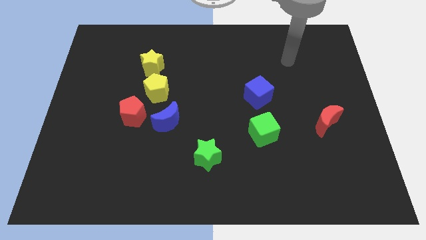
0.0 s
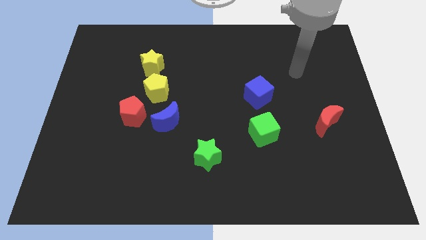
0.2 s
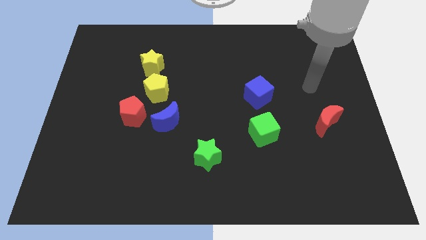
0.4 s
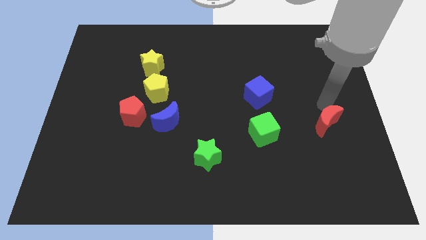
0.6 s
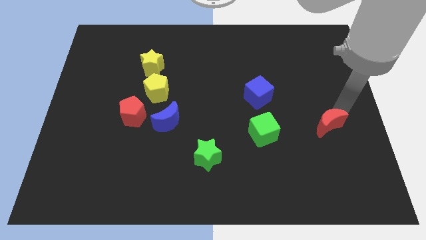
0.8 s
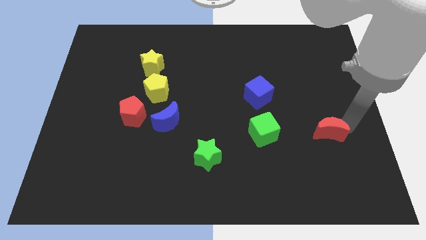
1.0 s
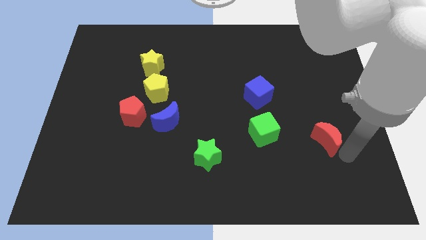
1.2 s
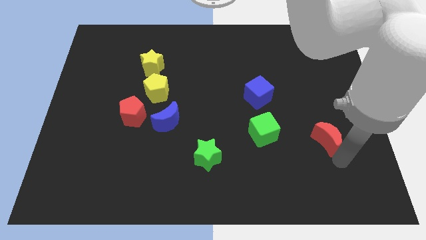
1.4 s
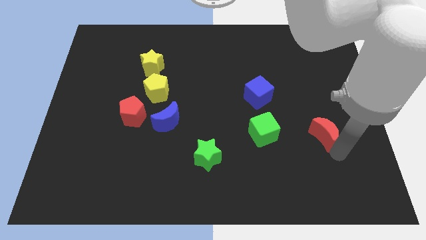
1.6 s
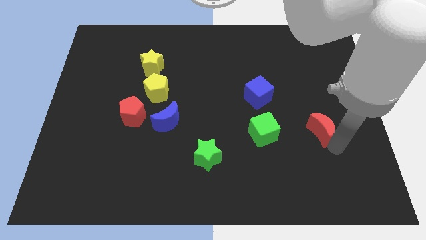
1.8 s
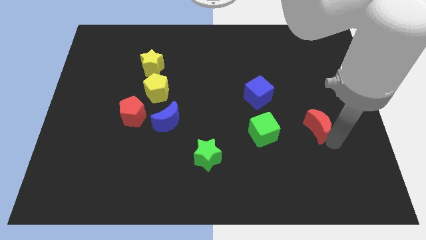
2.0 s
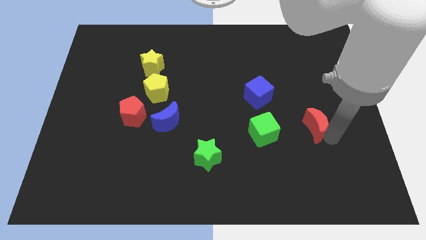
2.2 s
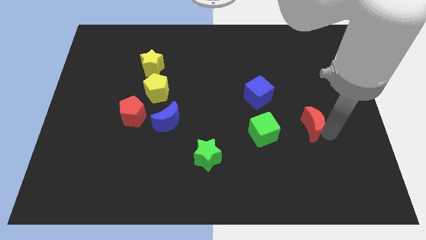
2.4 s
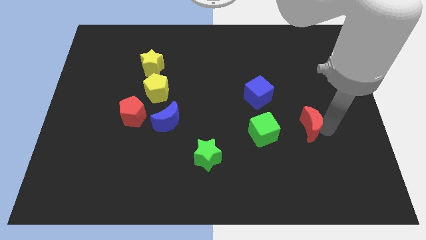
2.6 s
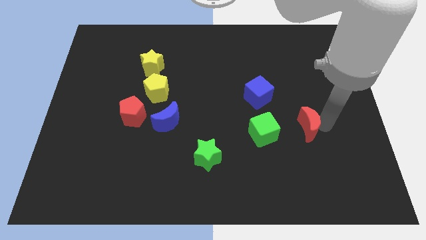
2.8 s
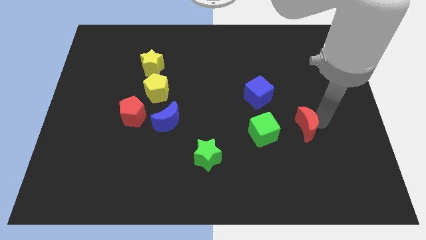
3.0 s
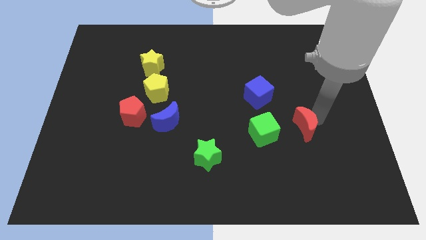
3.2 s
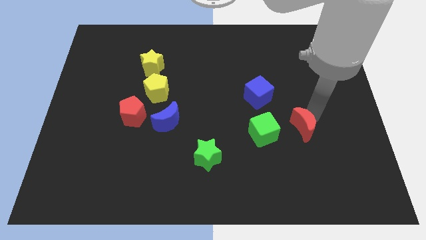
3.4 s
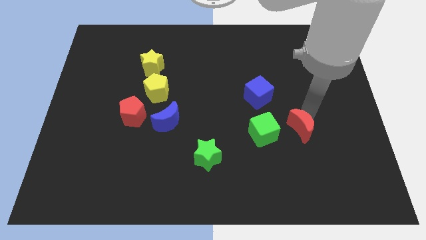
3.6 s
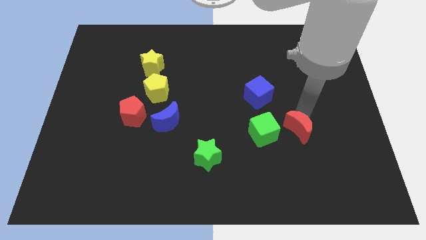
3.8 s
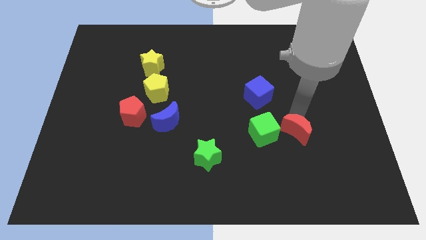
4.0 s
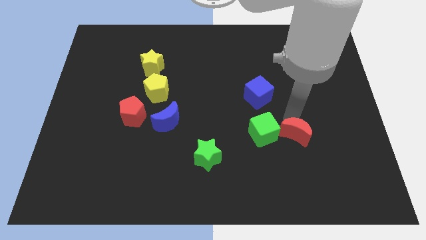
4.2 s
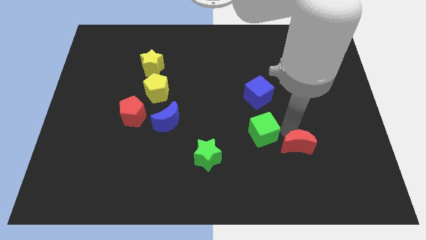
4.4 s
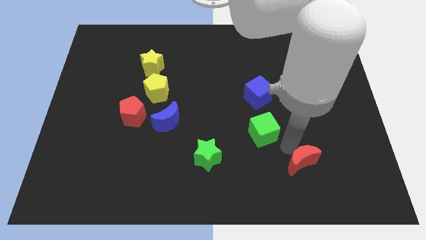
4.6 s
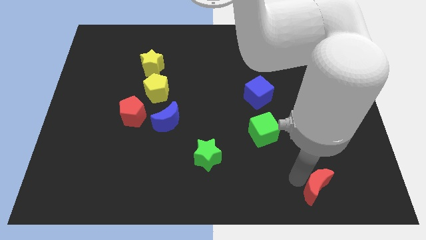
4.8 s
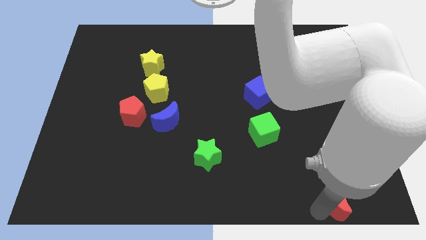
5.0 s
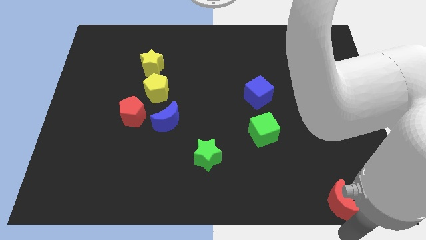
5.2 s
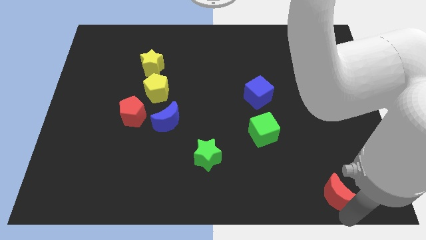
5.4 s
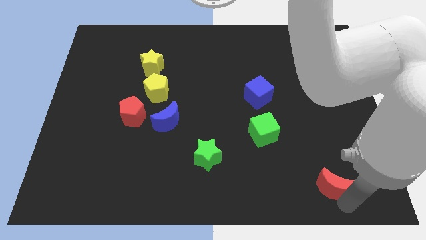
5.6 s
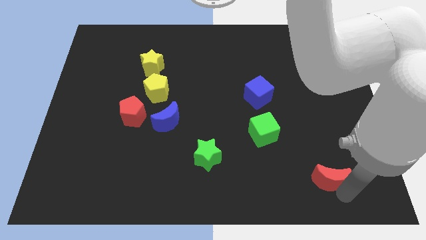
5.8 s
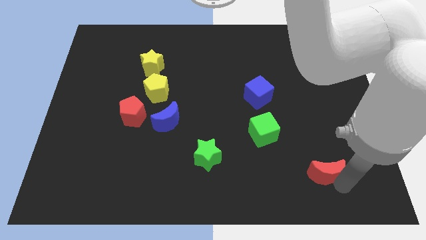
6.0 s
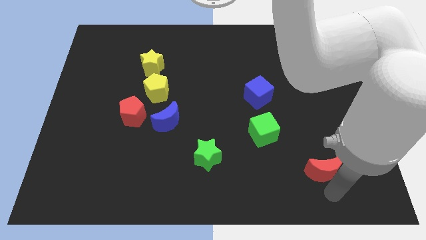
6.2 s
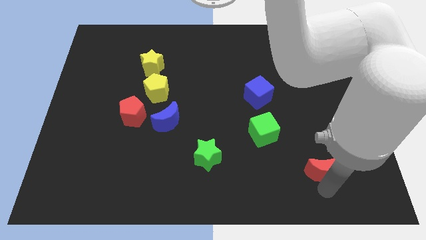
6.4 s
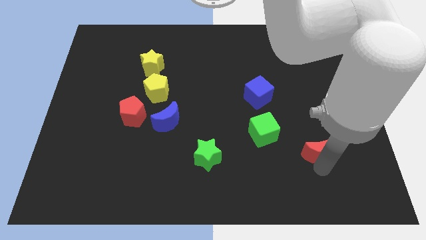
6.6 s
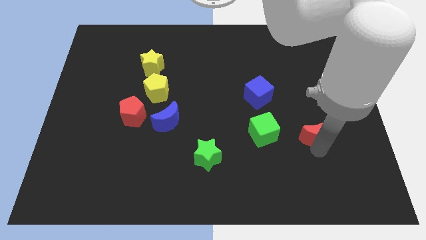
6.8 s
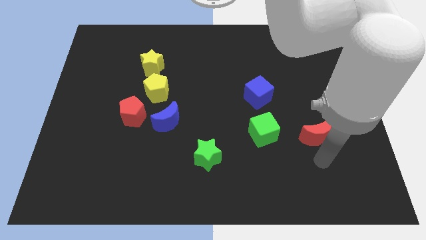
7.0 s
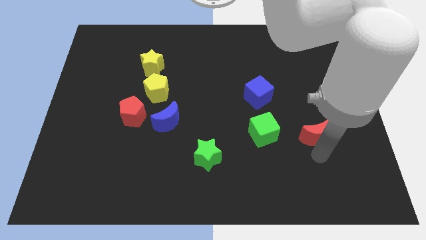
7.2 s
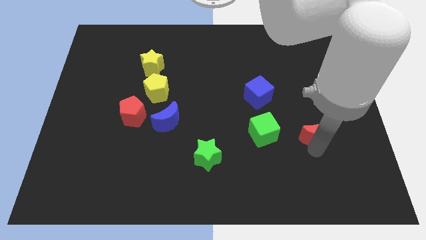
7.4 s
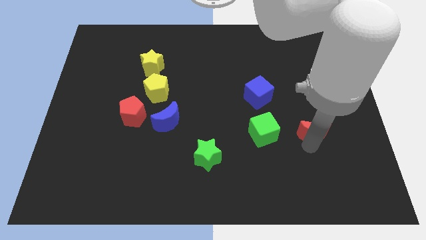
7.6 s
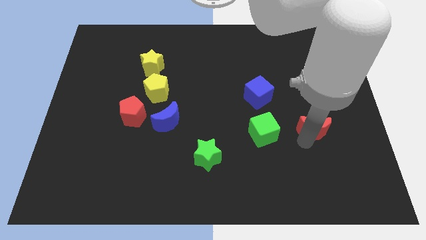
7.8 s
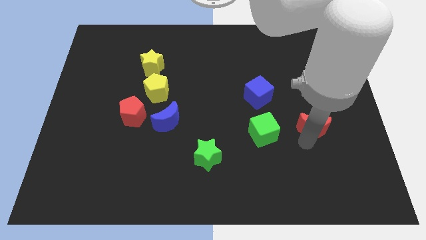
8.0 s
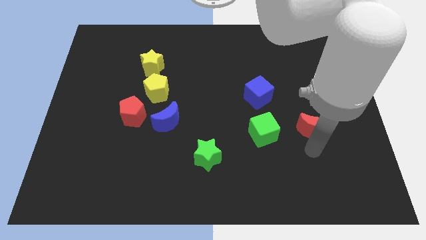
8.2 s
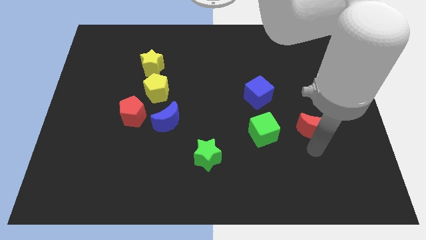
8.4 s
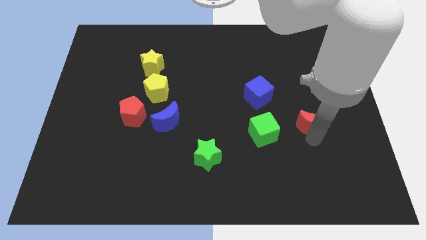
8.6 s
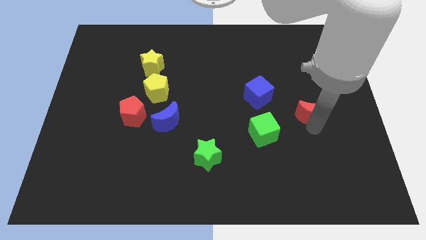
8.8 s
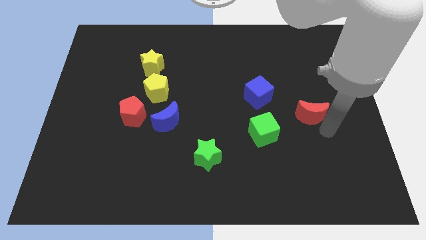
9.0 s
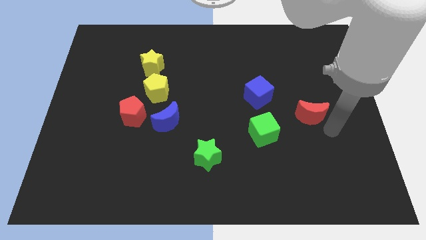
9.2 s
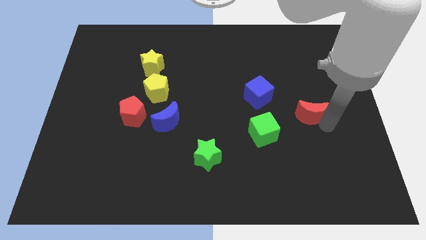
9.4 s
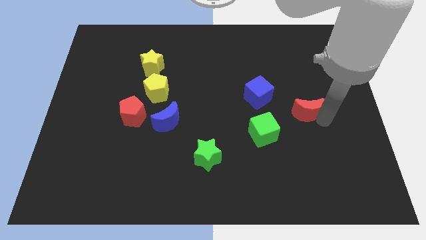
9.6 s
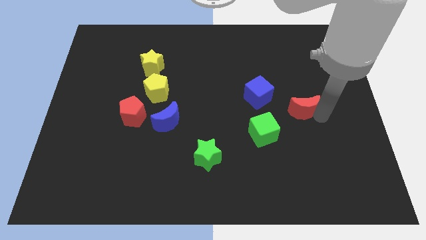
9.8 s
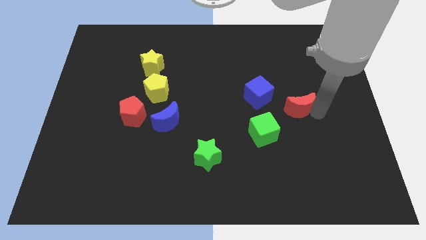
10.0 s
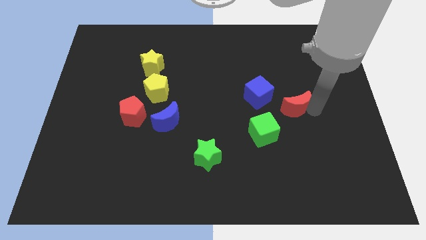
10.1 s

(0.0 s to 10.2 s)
move the red moon a little up and left diagonally

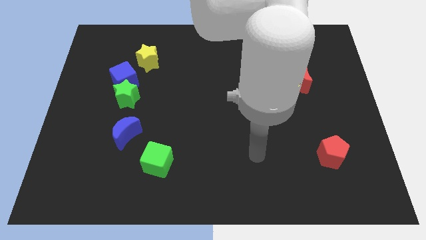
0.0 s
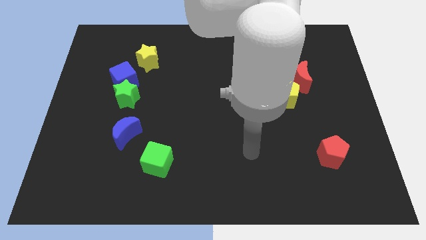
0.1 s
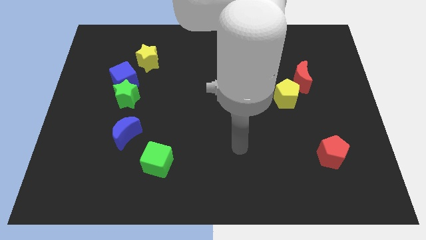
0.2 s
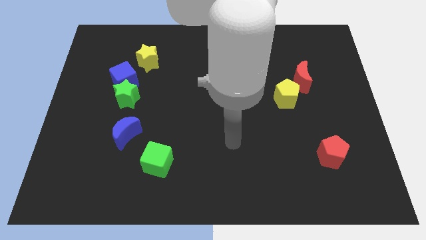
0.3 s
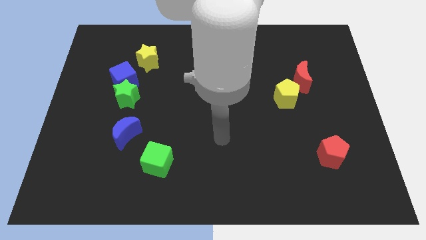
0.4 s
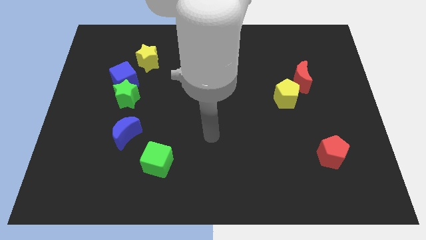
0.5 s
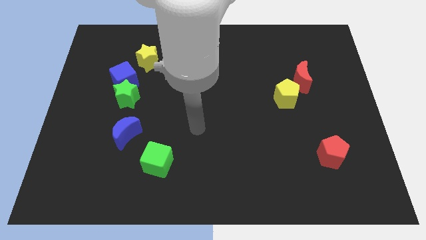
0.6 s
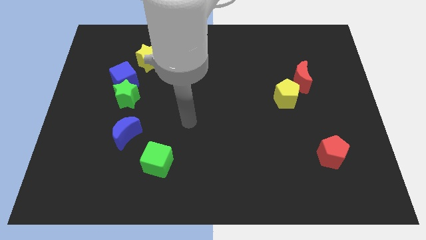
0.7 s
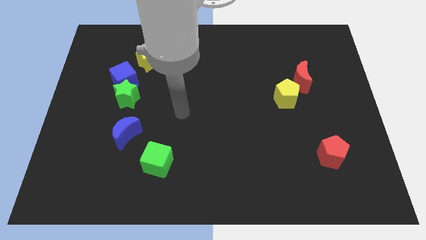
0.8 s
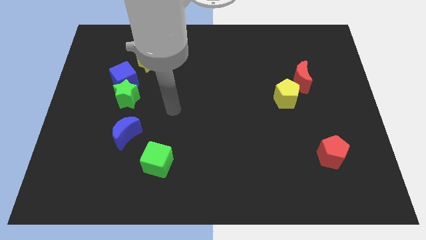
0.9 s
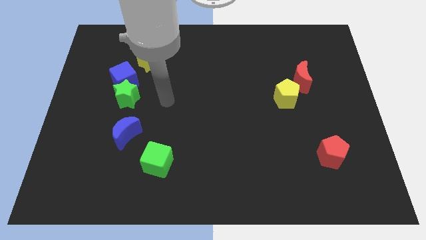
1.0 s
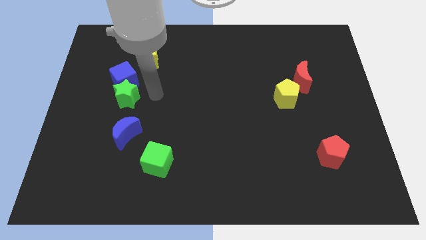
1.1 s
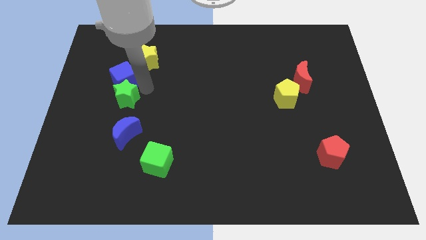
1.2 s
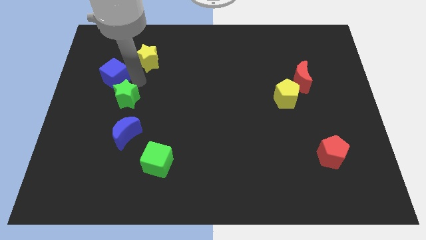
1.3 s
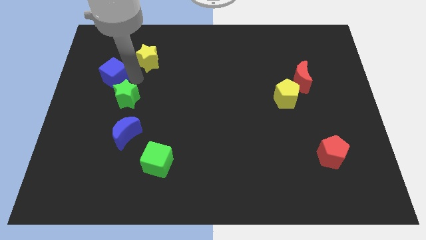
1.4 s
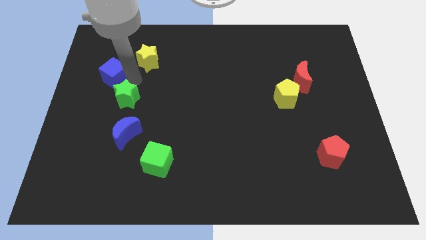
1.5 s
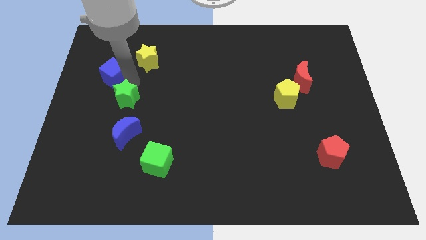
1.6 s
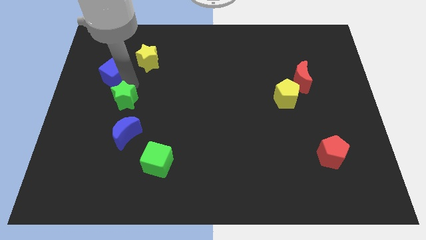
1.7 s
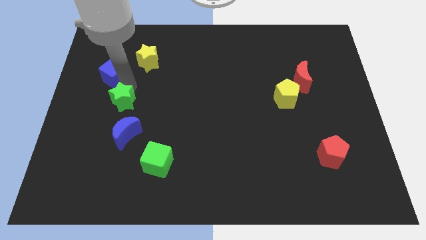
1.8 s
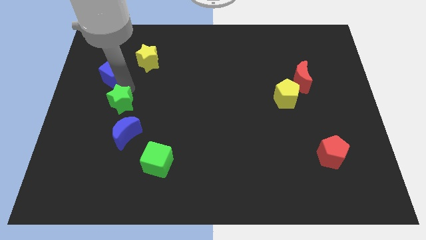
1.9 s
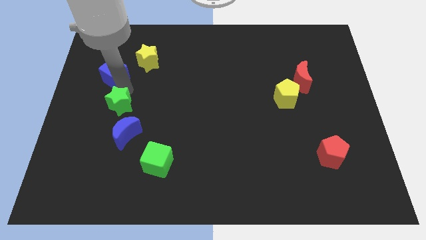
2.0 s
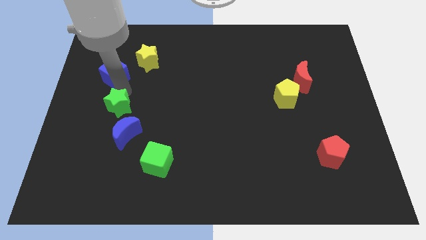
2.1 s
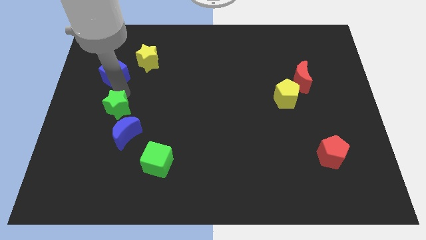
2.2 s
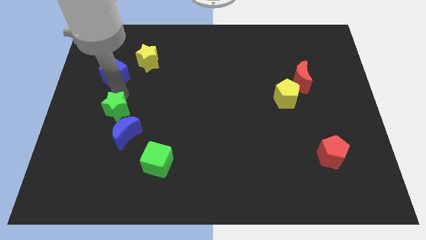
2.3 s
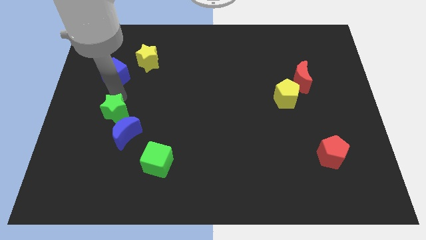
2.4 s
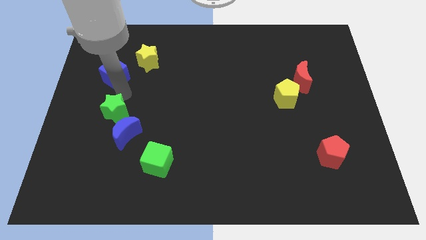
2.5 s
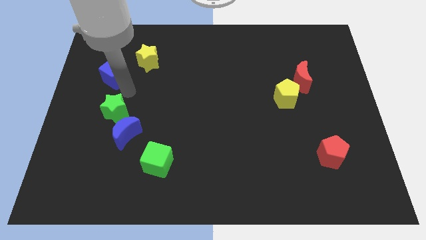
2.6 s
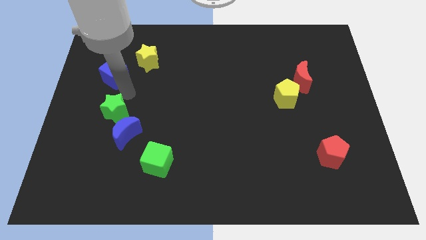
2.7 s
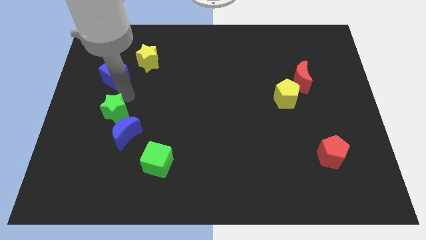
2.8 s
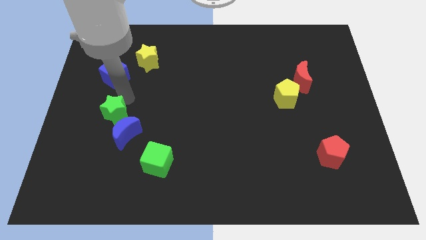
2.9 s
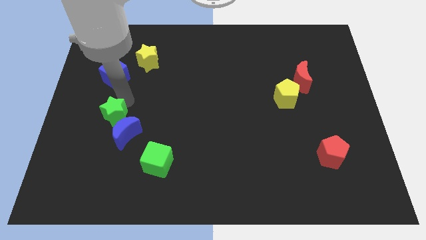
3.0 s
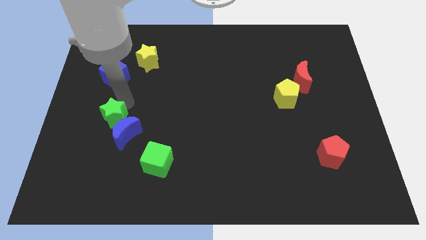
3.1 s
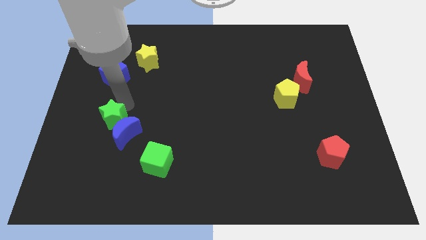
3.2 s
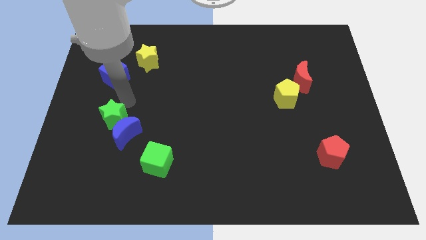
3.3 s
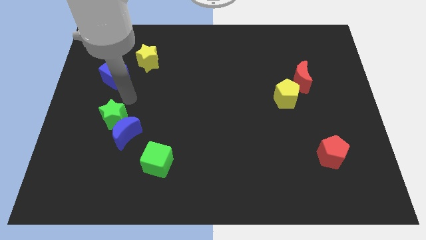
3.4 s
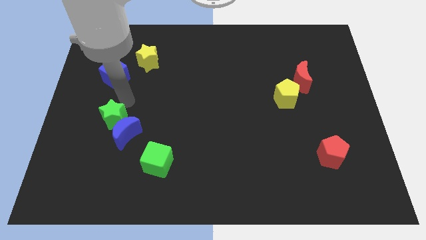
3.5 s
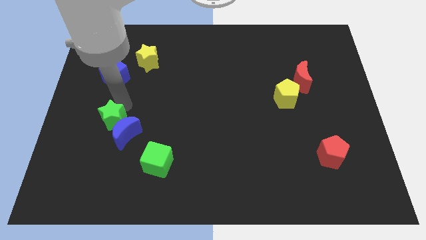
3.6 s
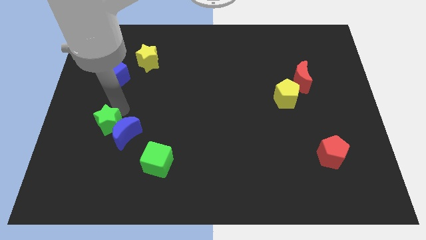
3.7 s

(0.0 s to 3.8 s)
move the green star a bit downwards
